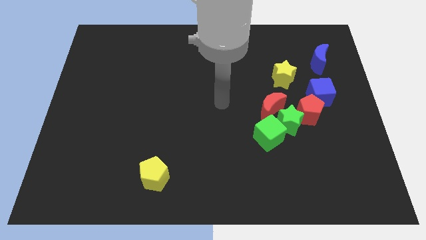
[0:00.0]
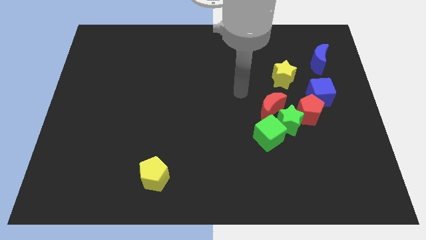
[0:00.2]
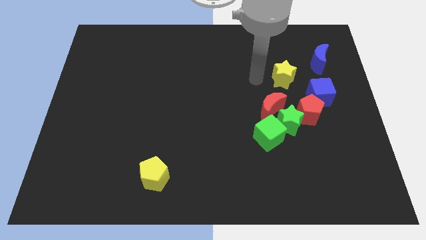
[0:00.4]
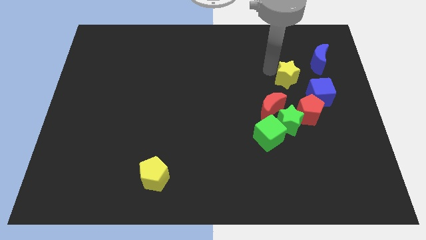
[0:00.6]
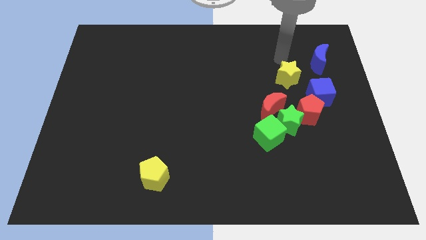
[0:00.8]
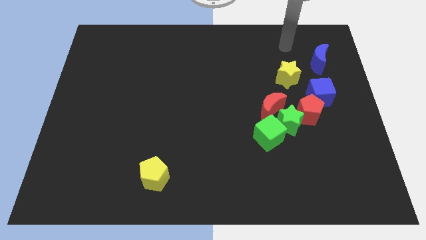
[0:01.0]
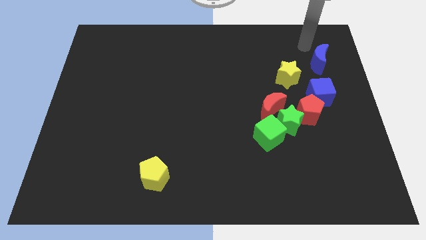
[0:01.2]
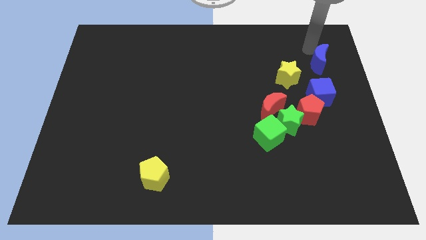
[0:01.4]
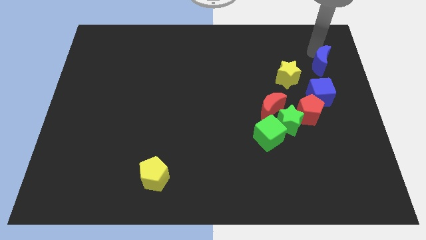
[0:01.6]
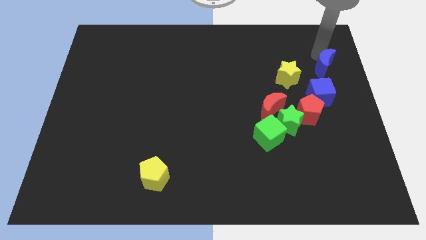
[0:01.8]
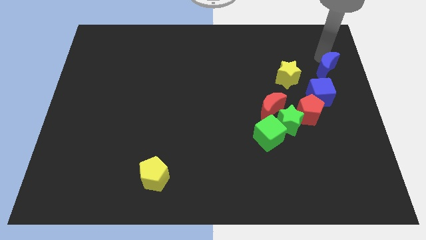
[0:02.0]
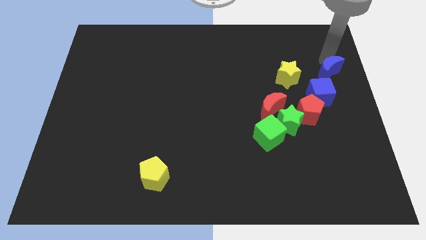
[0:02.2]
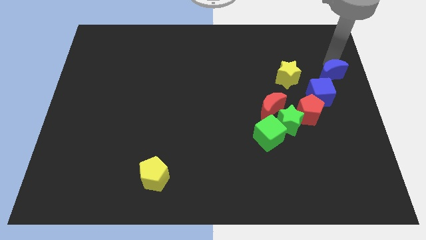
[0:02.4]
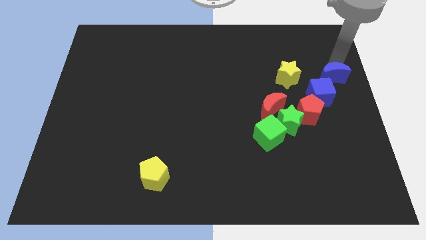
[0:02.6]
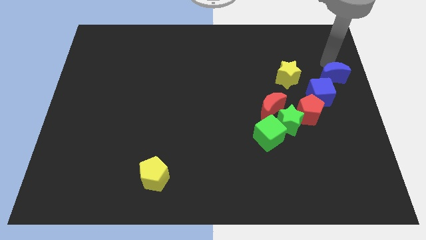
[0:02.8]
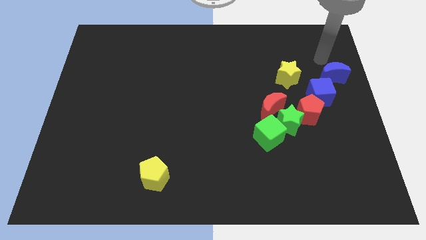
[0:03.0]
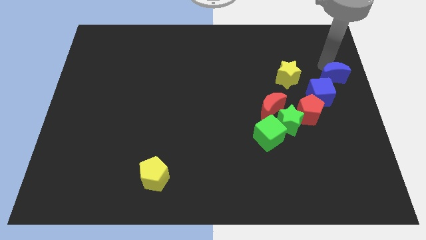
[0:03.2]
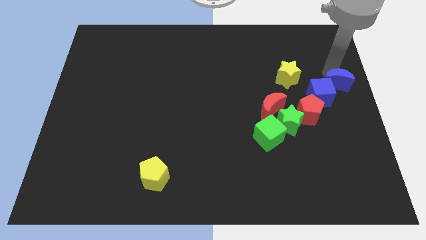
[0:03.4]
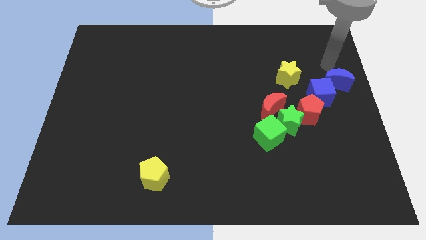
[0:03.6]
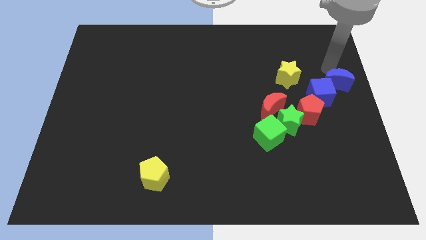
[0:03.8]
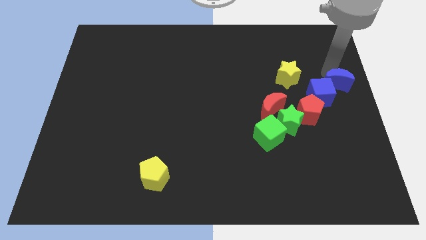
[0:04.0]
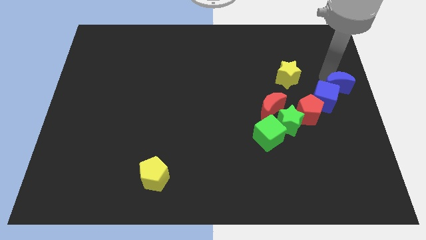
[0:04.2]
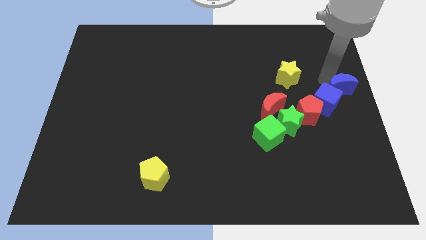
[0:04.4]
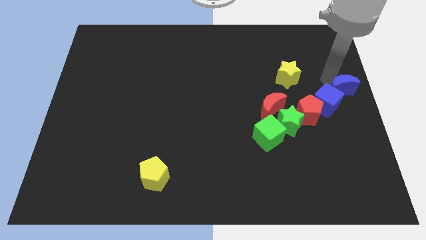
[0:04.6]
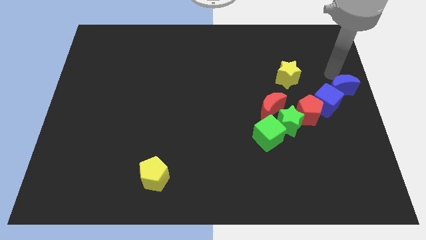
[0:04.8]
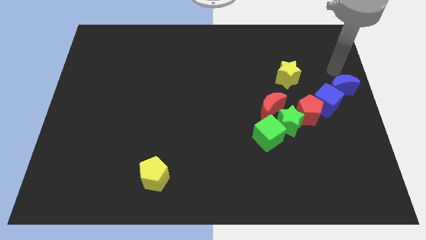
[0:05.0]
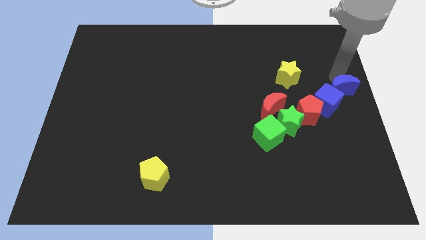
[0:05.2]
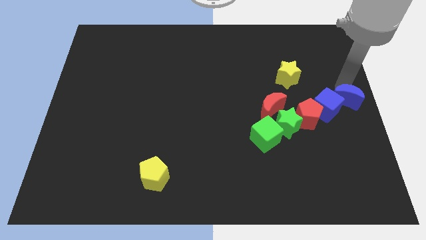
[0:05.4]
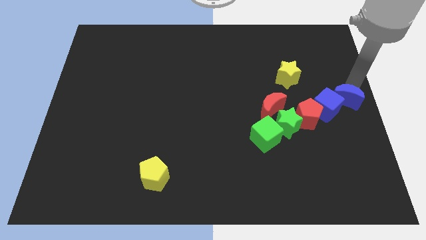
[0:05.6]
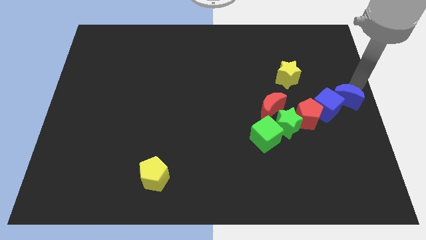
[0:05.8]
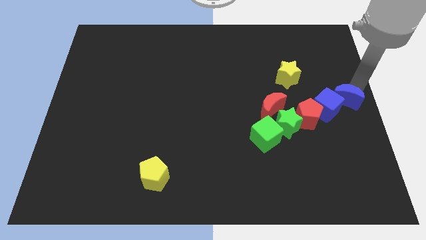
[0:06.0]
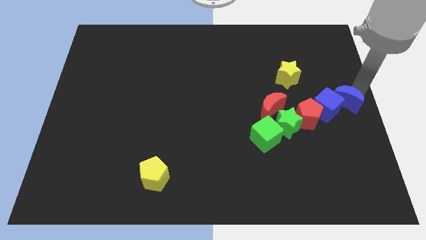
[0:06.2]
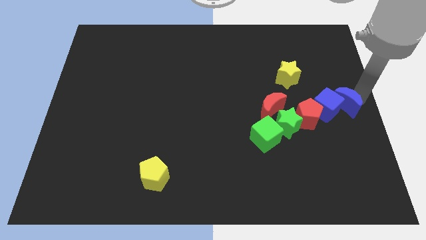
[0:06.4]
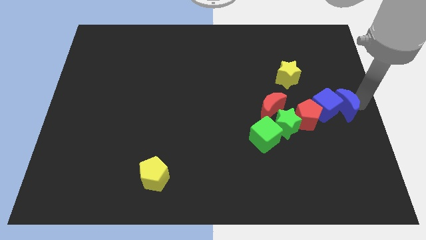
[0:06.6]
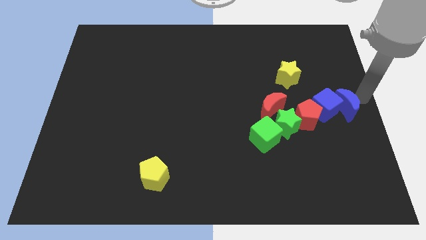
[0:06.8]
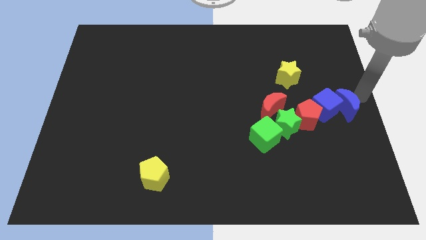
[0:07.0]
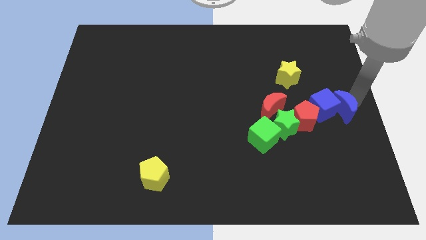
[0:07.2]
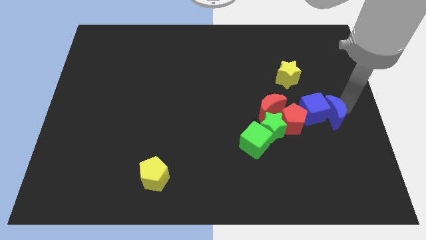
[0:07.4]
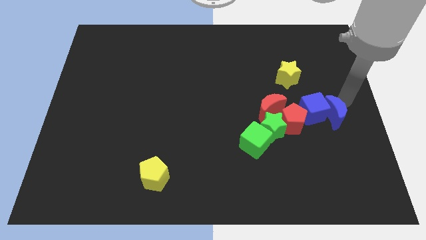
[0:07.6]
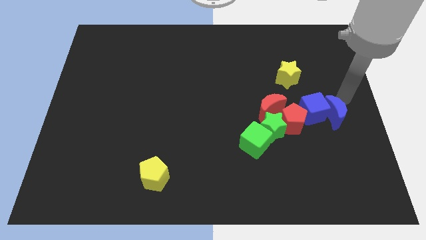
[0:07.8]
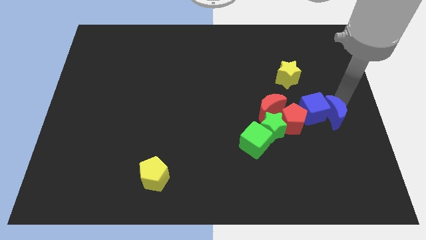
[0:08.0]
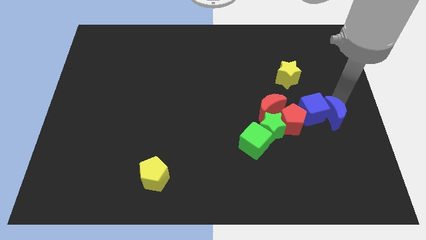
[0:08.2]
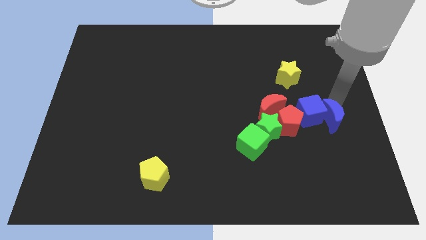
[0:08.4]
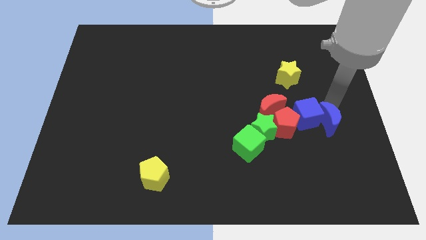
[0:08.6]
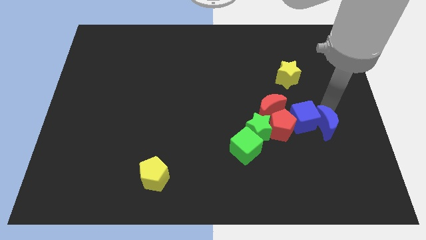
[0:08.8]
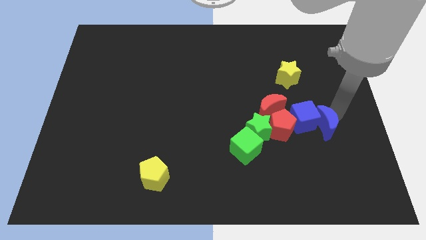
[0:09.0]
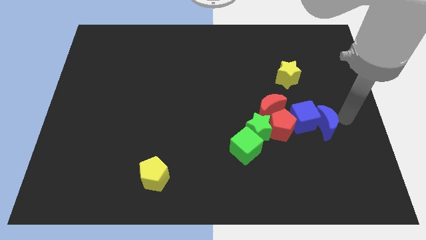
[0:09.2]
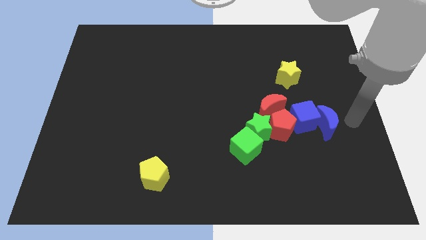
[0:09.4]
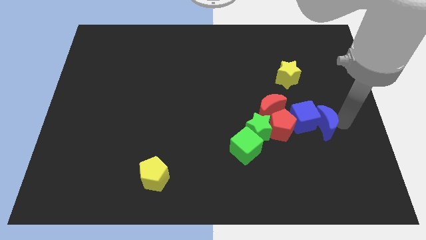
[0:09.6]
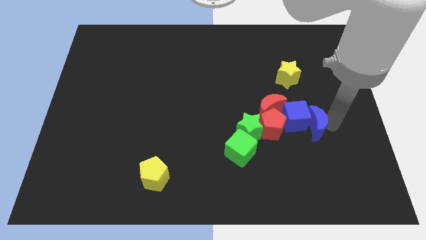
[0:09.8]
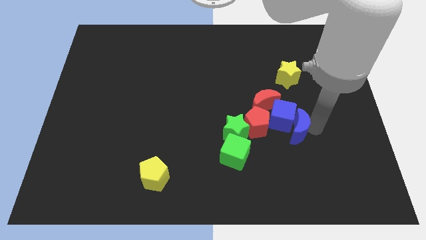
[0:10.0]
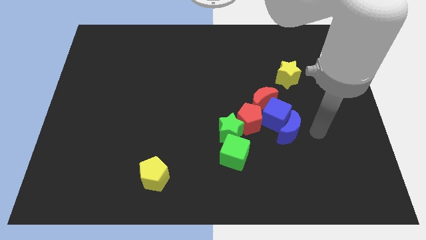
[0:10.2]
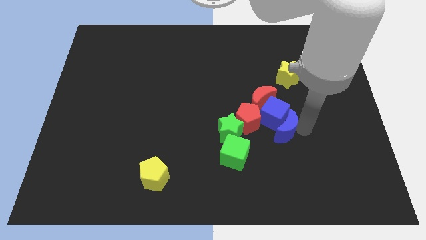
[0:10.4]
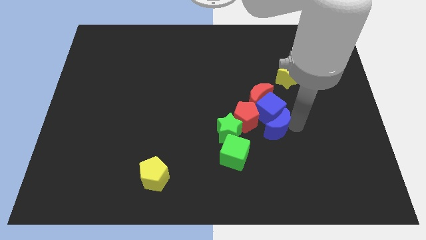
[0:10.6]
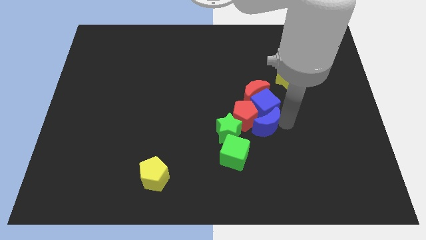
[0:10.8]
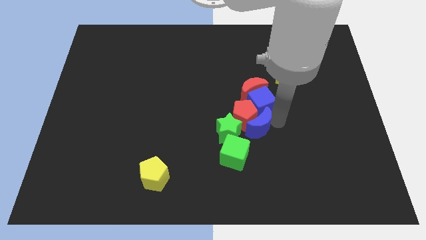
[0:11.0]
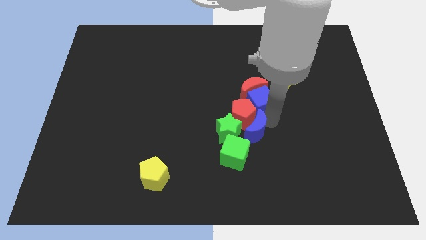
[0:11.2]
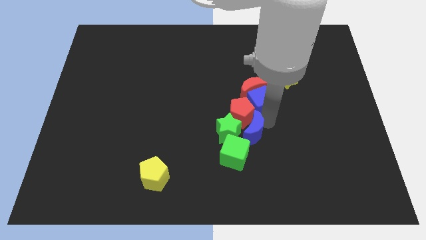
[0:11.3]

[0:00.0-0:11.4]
put the blue moon towards the green star

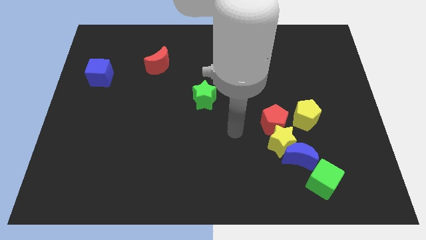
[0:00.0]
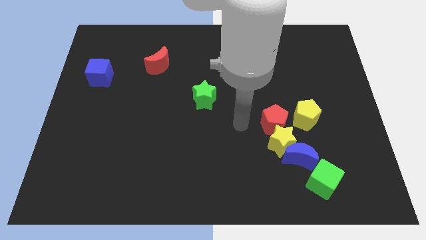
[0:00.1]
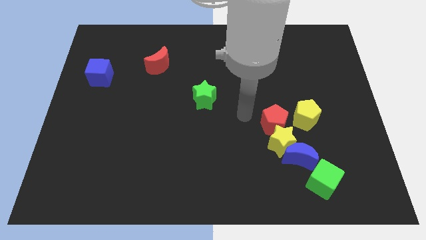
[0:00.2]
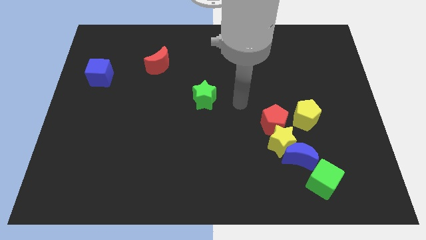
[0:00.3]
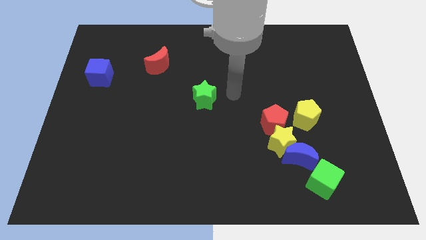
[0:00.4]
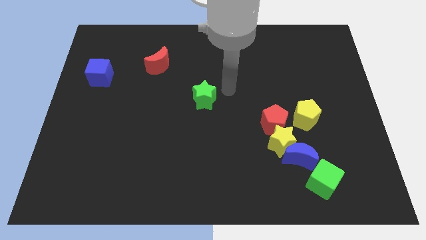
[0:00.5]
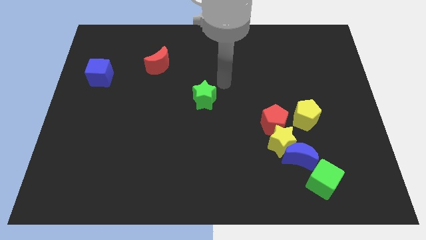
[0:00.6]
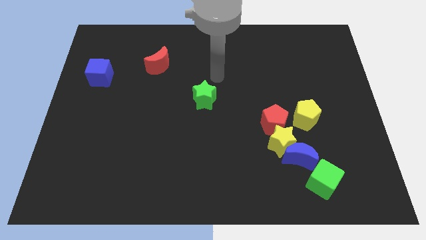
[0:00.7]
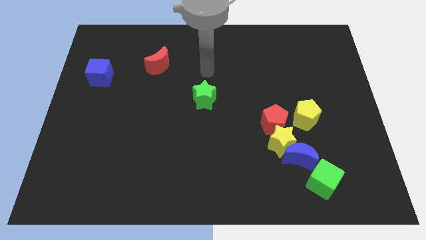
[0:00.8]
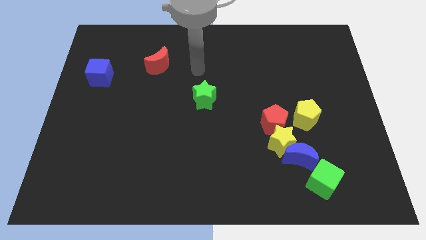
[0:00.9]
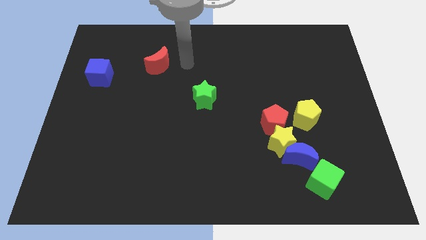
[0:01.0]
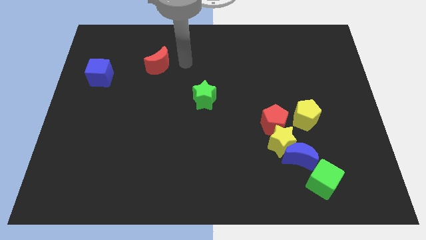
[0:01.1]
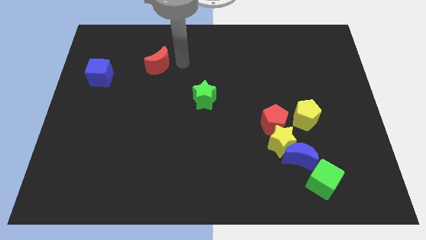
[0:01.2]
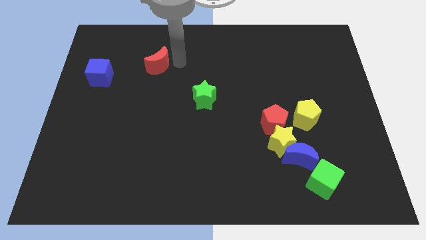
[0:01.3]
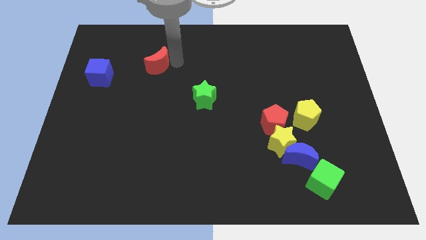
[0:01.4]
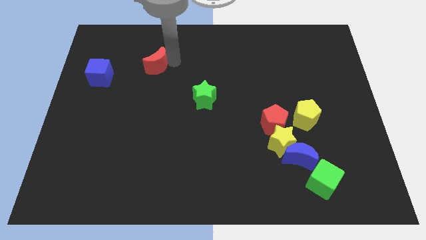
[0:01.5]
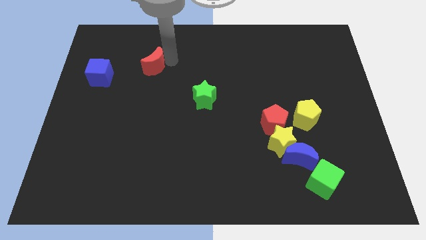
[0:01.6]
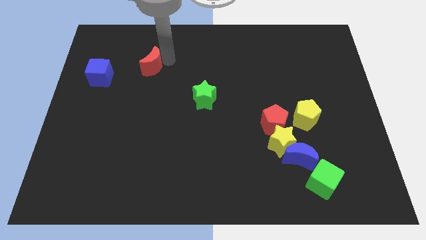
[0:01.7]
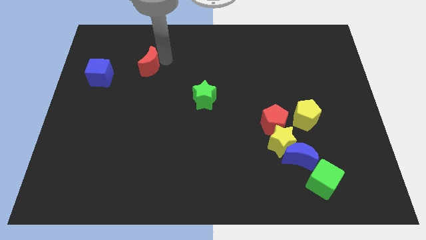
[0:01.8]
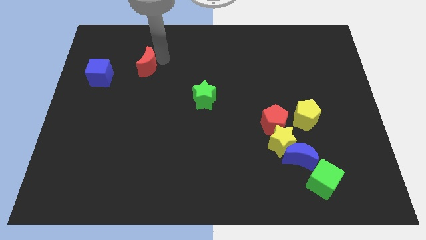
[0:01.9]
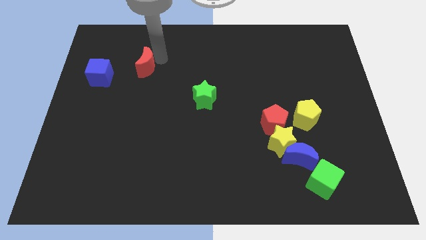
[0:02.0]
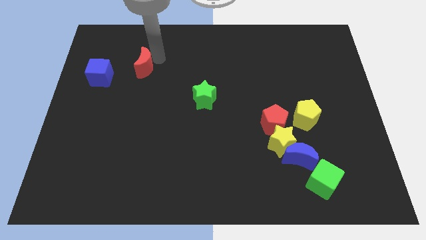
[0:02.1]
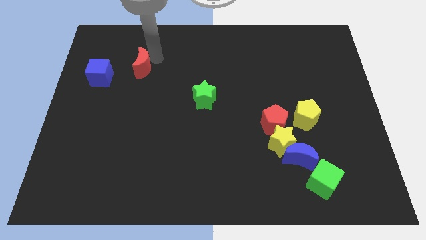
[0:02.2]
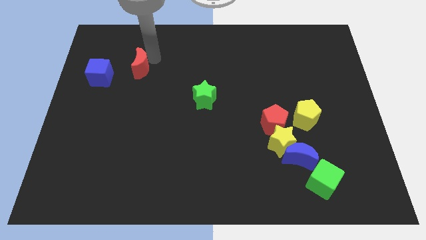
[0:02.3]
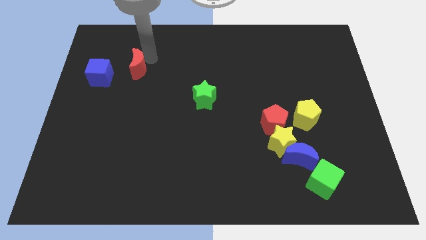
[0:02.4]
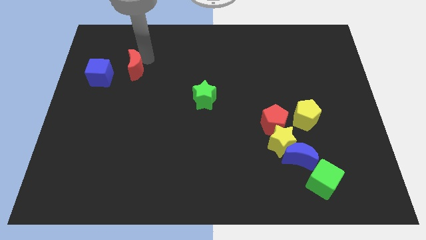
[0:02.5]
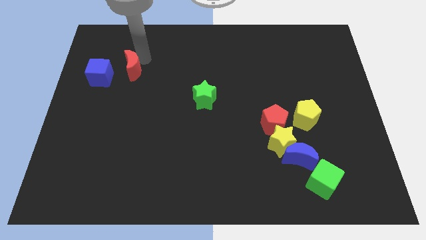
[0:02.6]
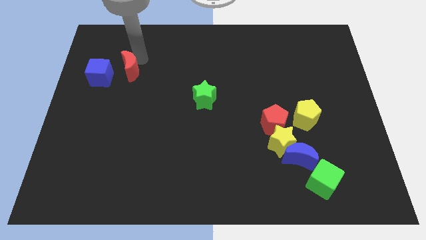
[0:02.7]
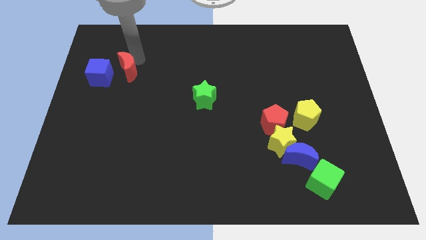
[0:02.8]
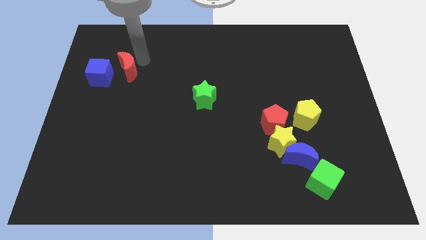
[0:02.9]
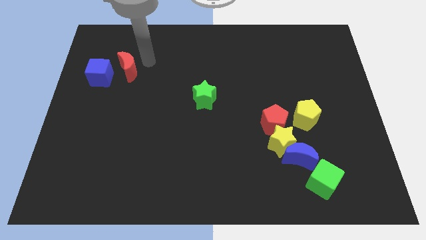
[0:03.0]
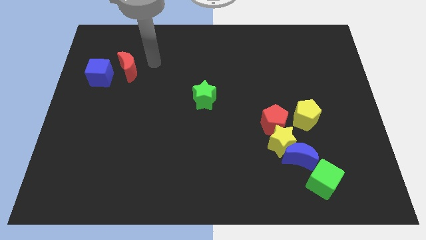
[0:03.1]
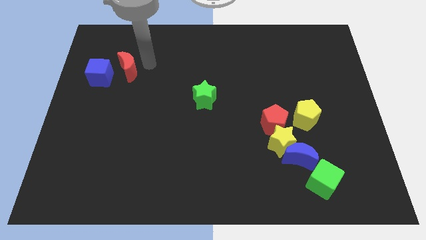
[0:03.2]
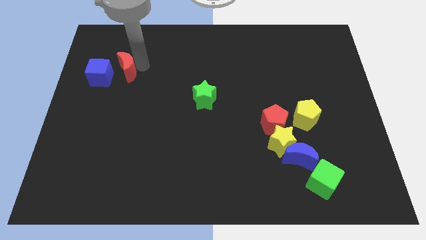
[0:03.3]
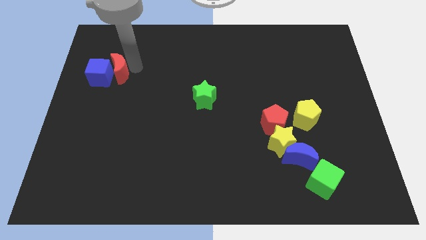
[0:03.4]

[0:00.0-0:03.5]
push the red moon towards the blue cube
